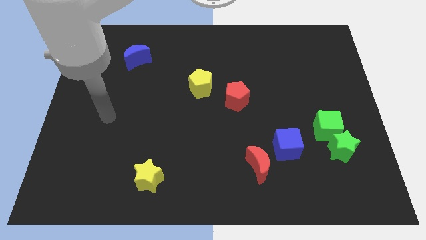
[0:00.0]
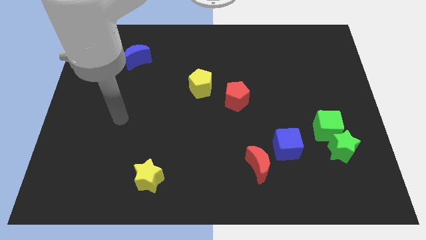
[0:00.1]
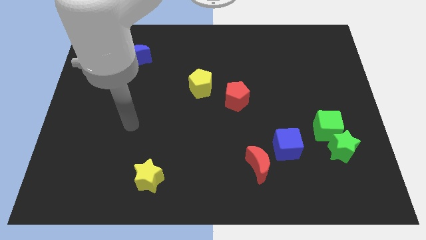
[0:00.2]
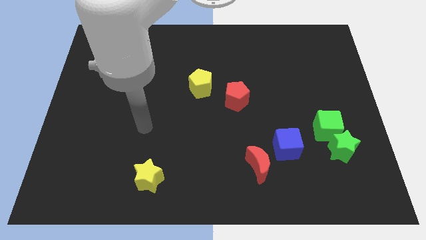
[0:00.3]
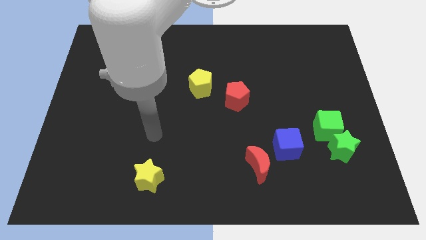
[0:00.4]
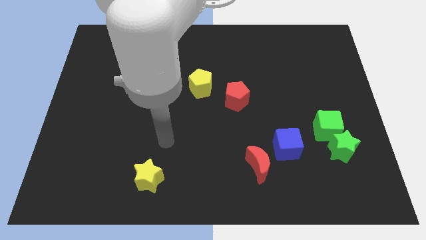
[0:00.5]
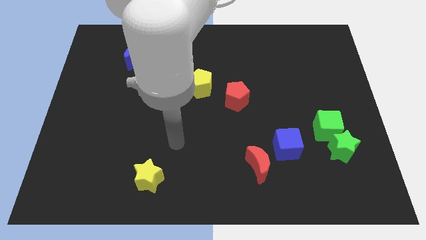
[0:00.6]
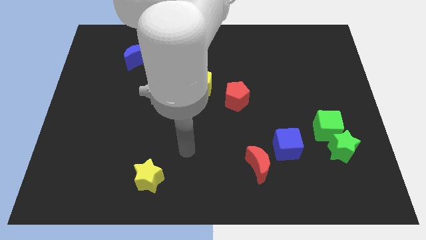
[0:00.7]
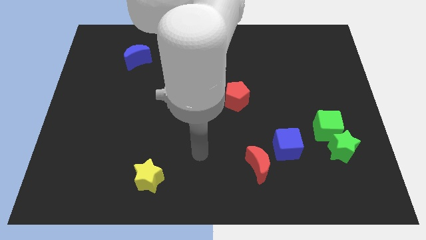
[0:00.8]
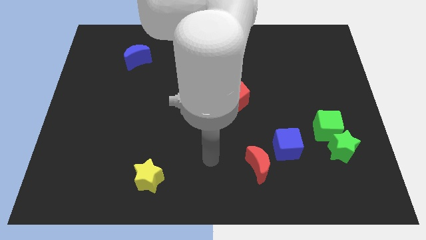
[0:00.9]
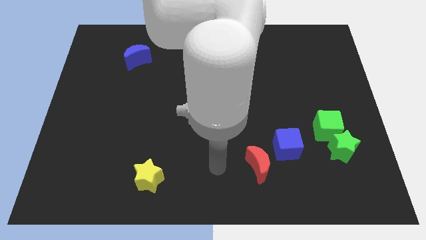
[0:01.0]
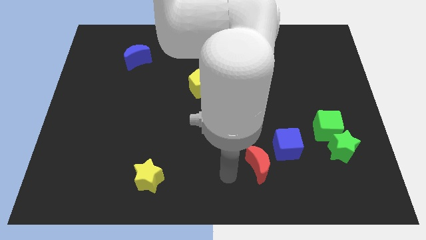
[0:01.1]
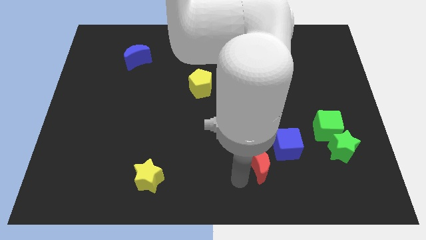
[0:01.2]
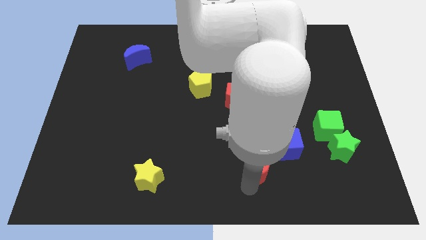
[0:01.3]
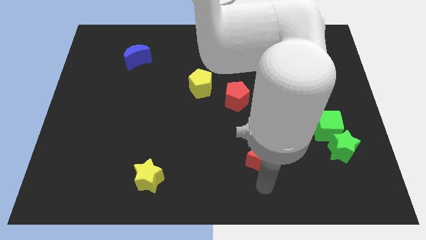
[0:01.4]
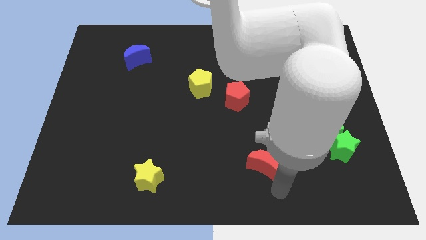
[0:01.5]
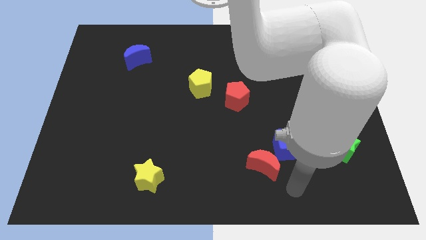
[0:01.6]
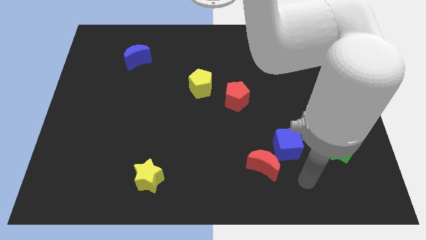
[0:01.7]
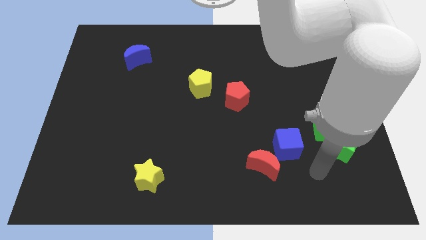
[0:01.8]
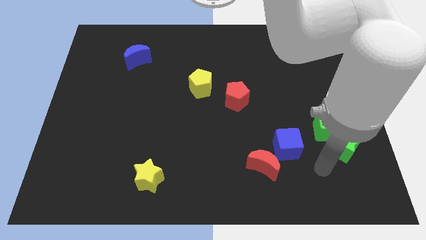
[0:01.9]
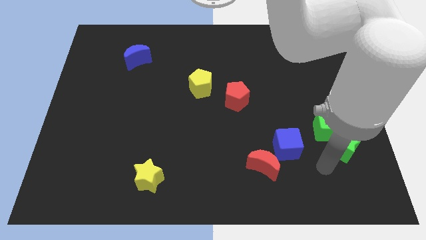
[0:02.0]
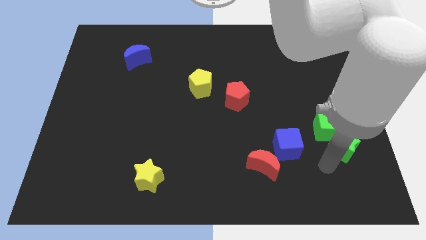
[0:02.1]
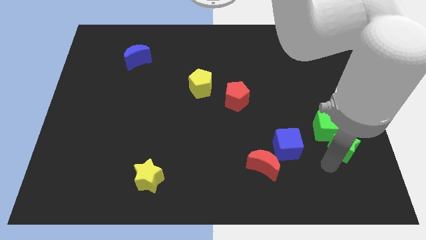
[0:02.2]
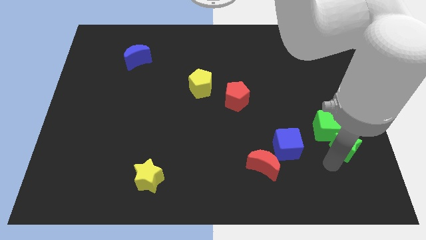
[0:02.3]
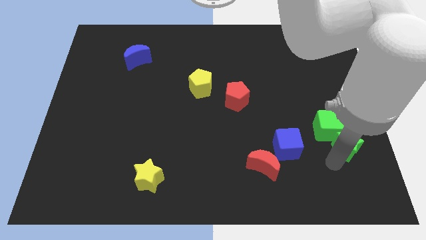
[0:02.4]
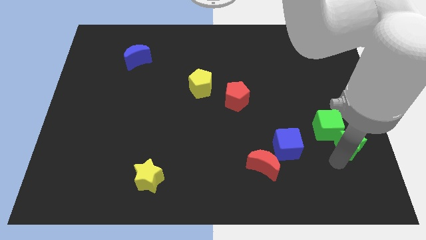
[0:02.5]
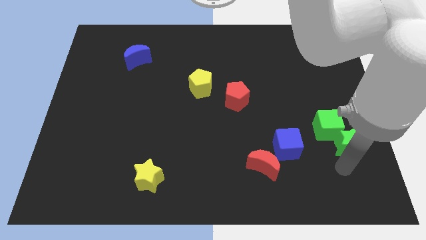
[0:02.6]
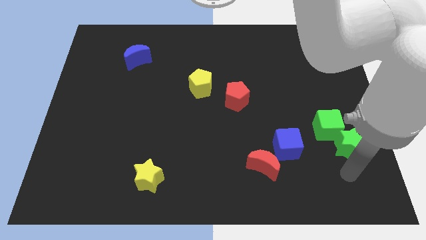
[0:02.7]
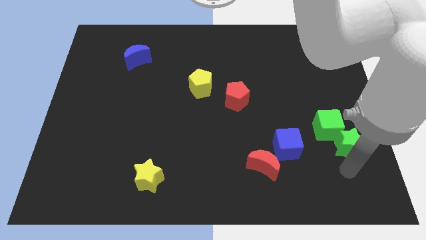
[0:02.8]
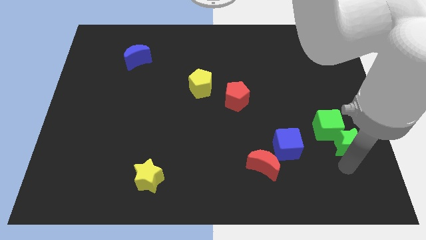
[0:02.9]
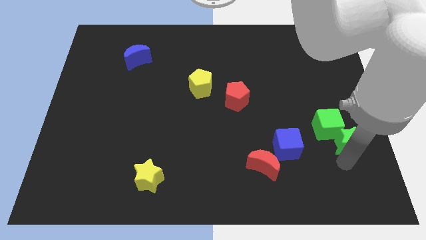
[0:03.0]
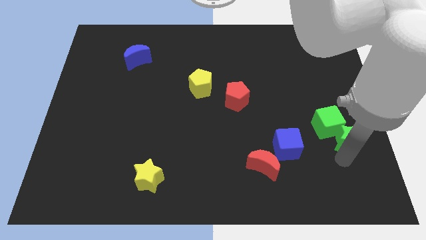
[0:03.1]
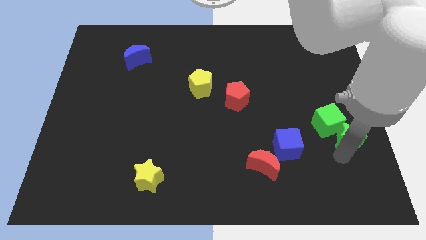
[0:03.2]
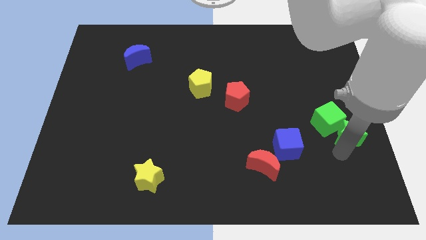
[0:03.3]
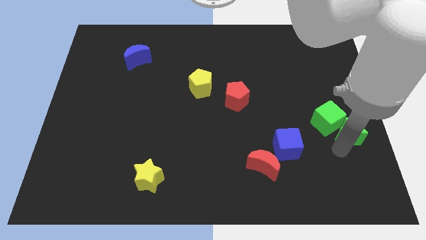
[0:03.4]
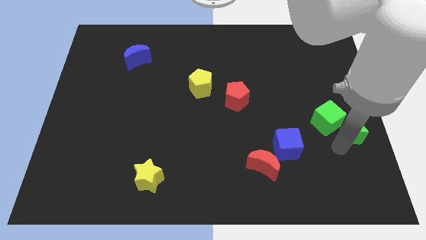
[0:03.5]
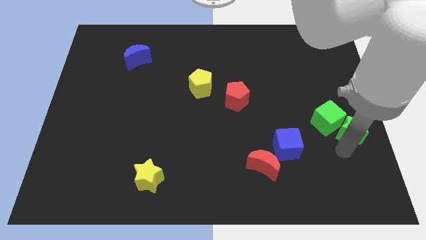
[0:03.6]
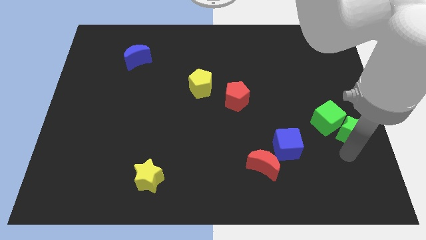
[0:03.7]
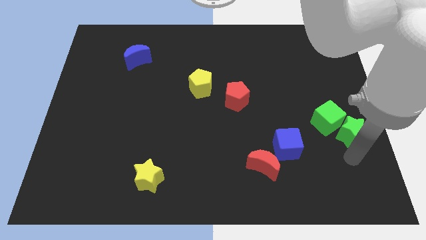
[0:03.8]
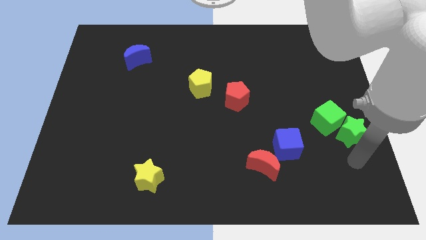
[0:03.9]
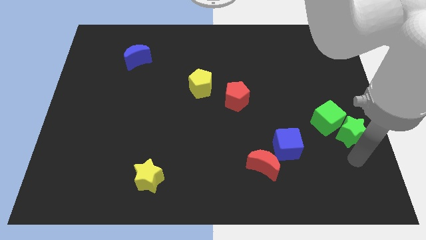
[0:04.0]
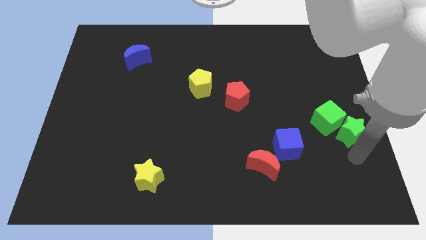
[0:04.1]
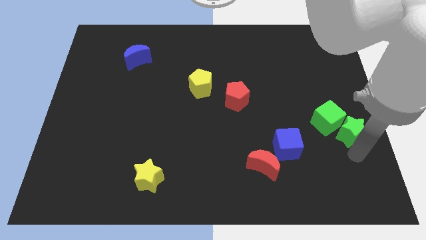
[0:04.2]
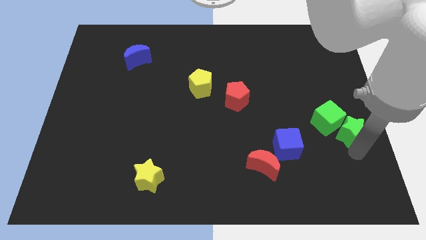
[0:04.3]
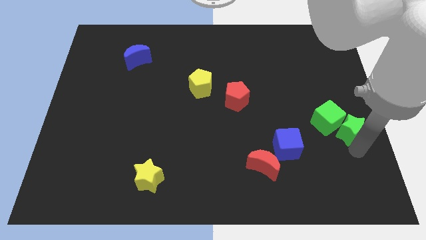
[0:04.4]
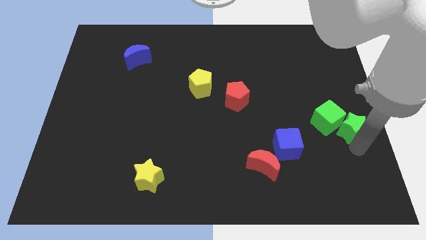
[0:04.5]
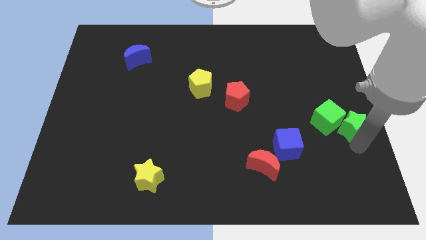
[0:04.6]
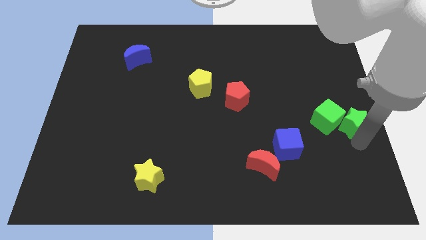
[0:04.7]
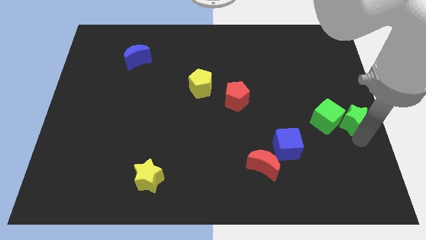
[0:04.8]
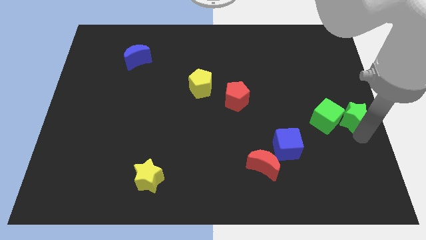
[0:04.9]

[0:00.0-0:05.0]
slightly slide the green star up

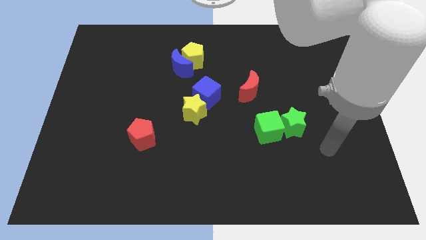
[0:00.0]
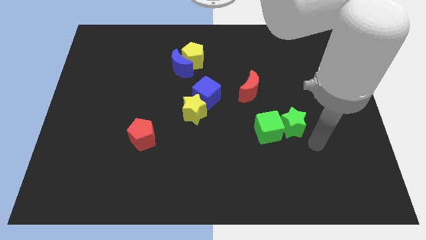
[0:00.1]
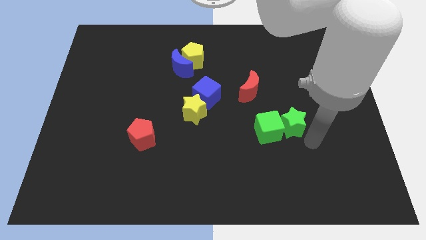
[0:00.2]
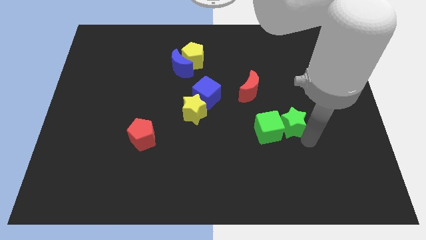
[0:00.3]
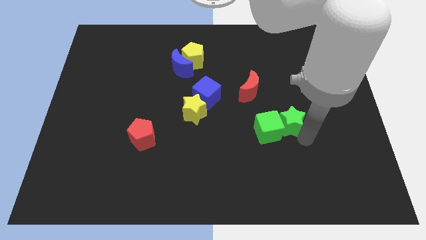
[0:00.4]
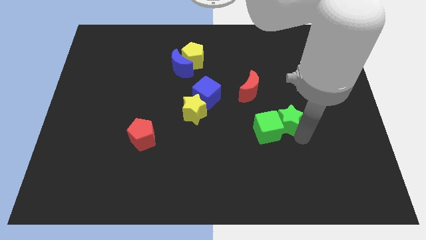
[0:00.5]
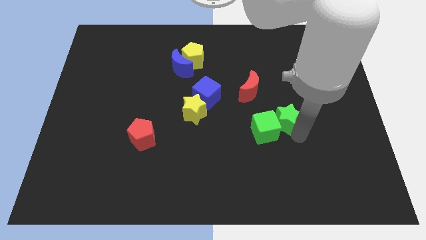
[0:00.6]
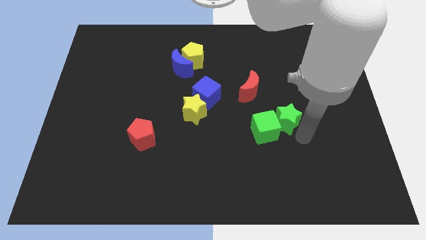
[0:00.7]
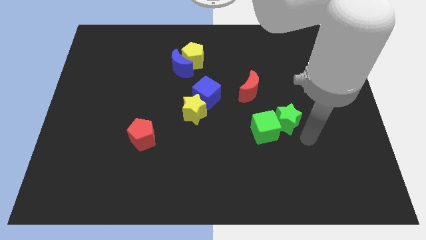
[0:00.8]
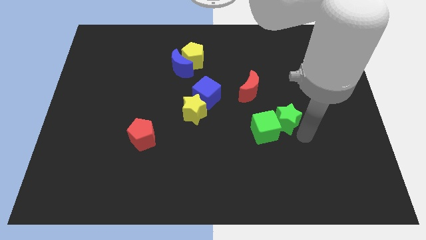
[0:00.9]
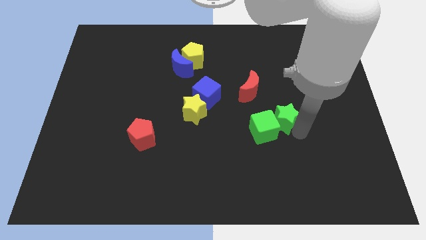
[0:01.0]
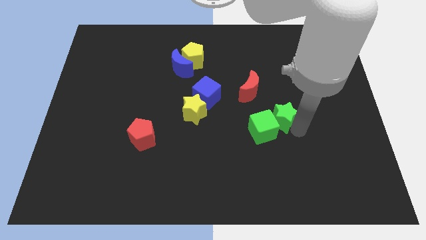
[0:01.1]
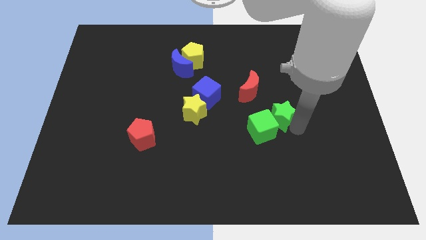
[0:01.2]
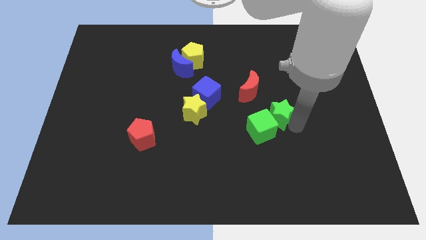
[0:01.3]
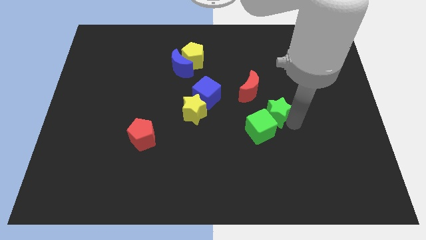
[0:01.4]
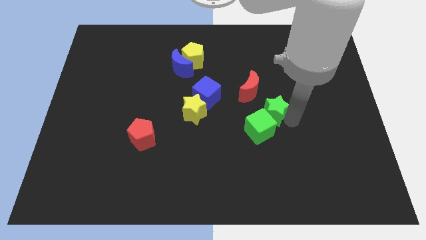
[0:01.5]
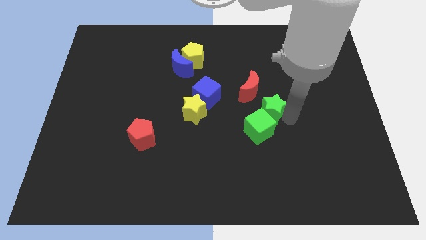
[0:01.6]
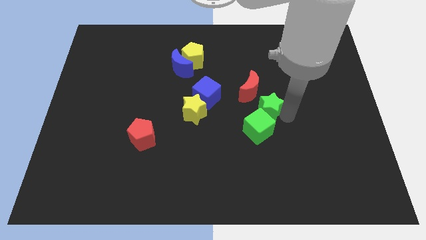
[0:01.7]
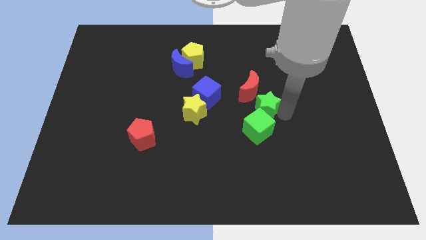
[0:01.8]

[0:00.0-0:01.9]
slightly move the green star up and left diagonally

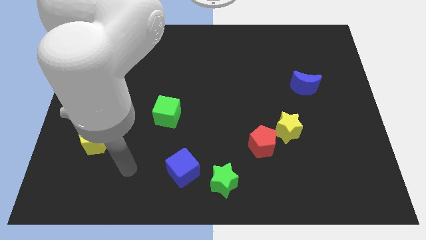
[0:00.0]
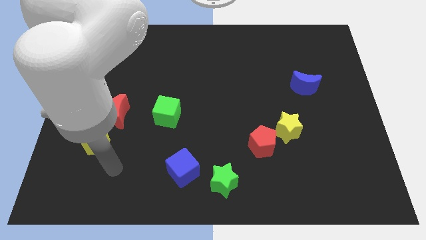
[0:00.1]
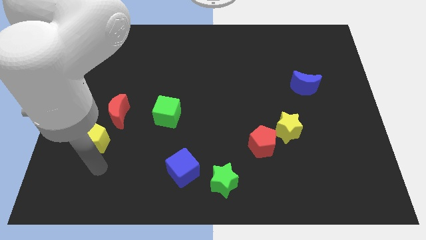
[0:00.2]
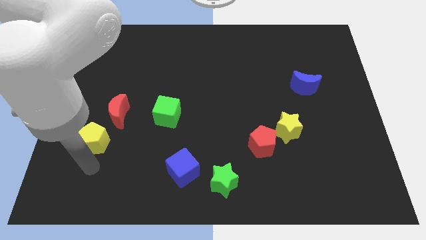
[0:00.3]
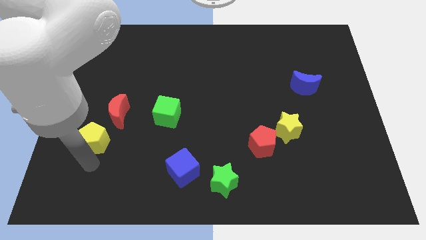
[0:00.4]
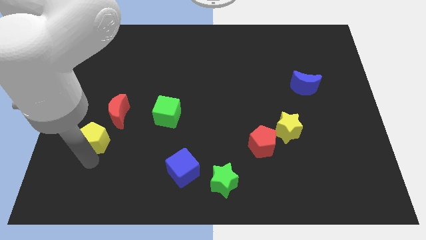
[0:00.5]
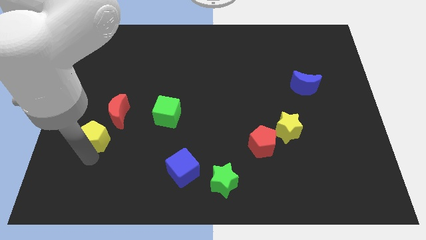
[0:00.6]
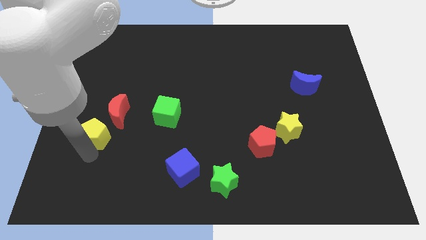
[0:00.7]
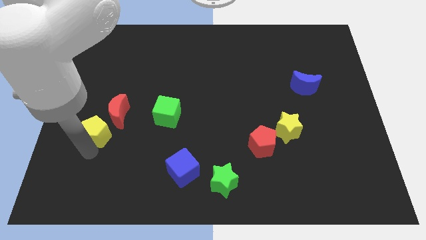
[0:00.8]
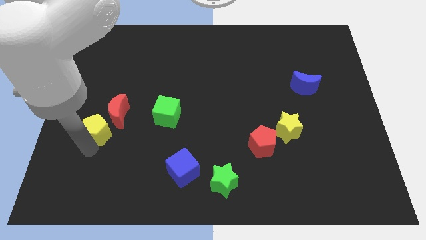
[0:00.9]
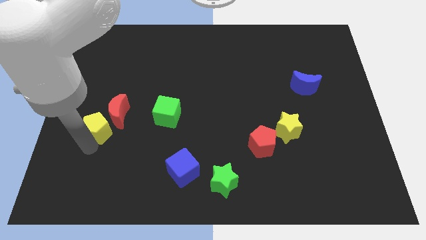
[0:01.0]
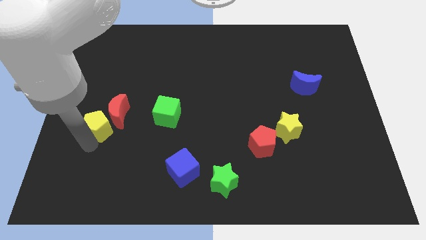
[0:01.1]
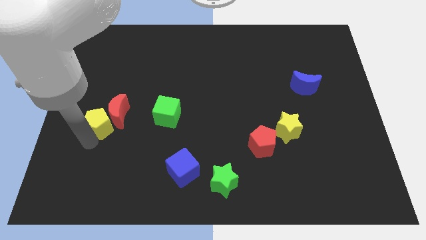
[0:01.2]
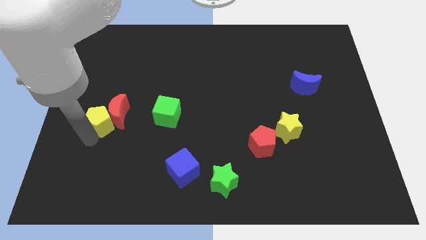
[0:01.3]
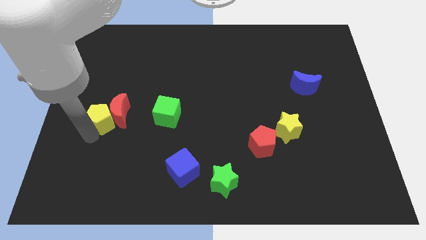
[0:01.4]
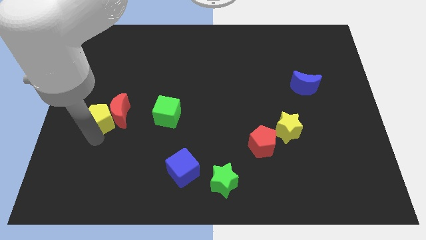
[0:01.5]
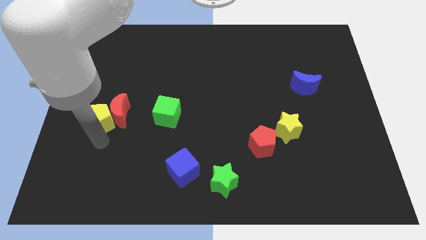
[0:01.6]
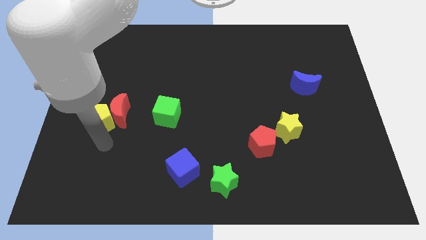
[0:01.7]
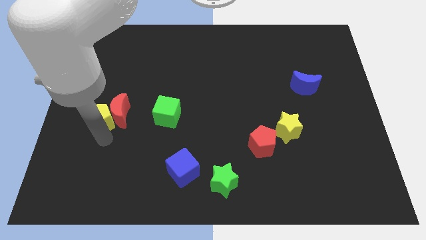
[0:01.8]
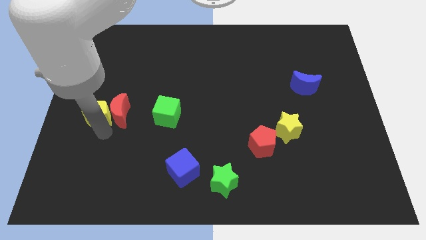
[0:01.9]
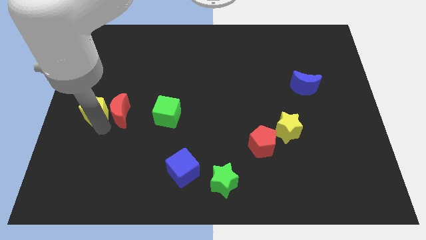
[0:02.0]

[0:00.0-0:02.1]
move the yellow pentagon upwards slightly
